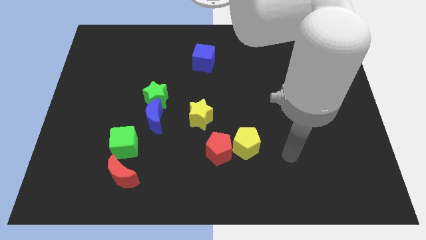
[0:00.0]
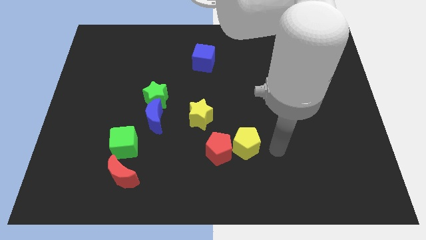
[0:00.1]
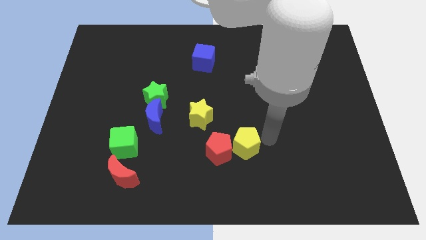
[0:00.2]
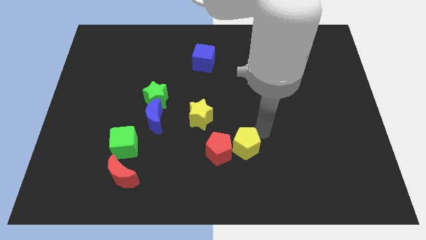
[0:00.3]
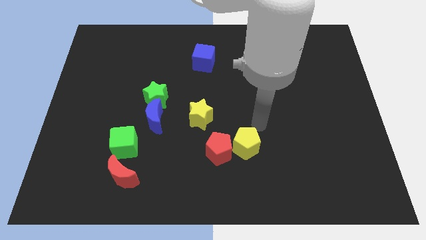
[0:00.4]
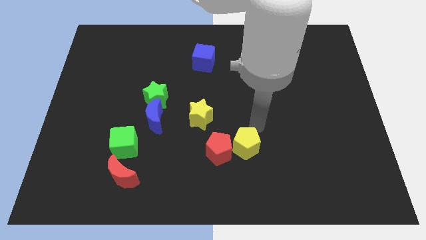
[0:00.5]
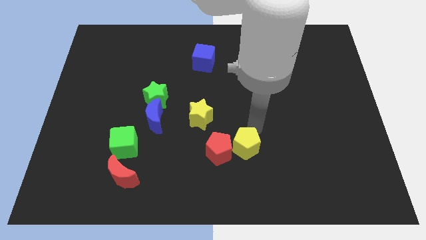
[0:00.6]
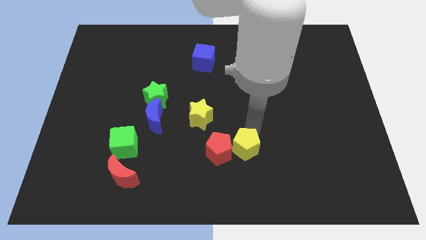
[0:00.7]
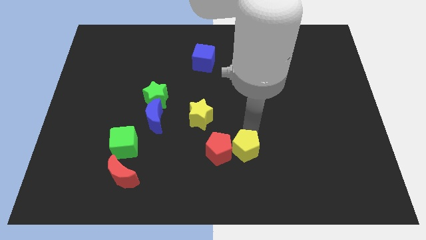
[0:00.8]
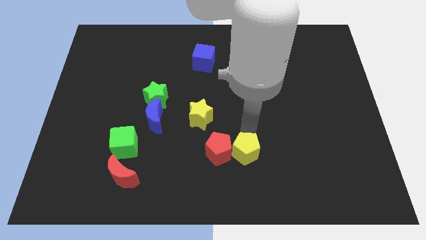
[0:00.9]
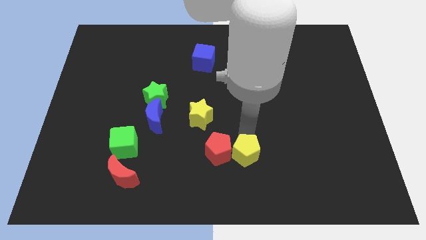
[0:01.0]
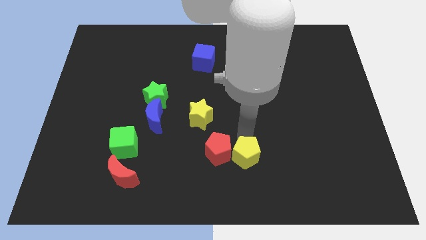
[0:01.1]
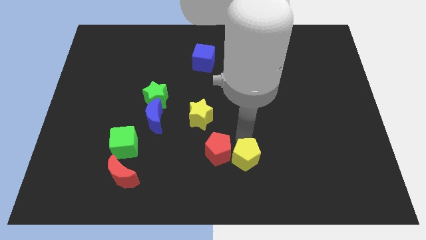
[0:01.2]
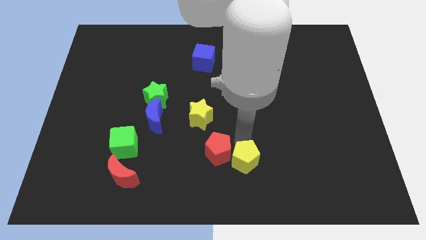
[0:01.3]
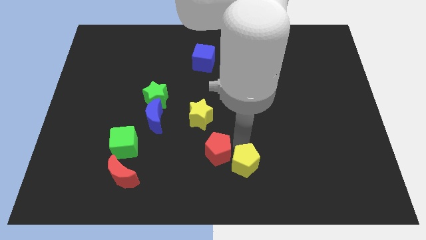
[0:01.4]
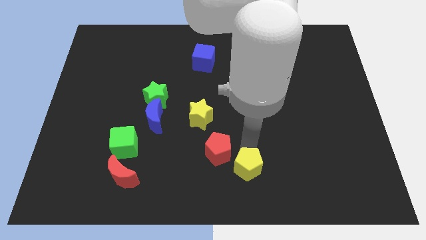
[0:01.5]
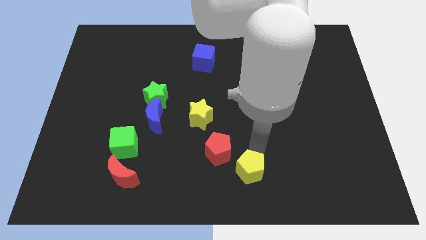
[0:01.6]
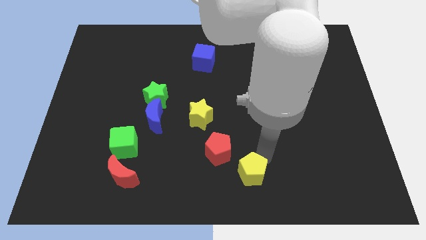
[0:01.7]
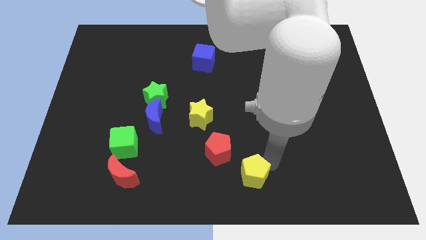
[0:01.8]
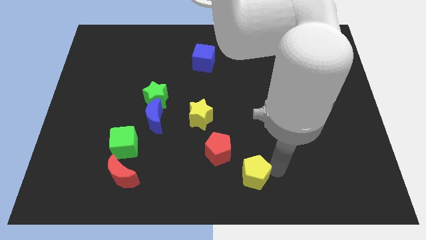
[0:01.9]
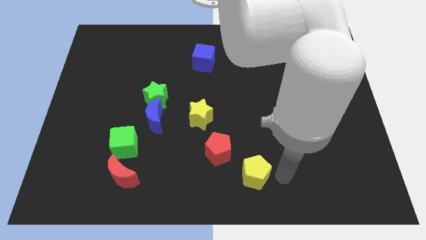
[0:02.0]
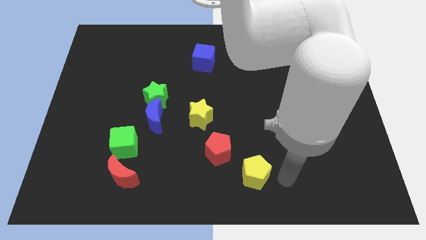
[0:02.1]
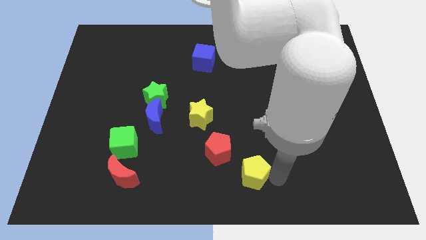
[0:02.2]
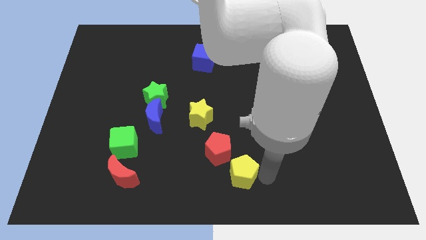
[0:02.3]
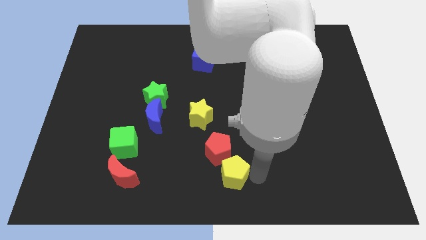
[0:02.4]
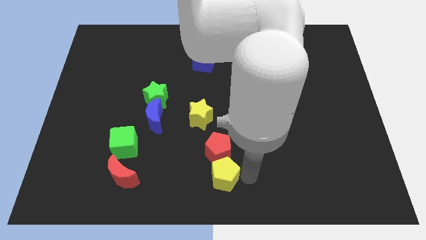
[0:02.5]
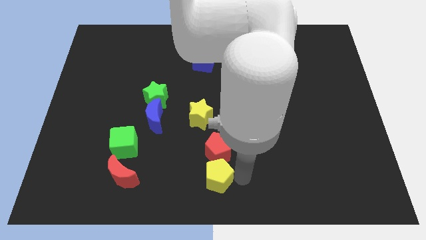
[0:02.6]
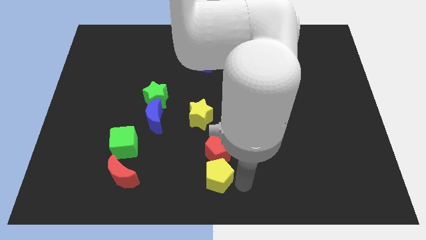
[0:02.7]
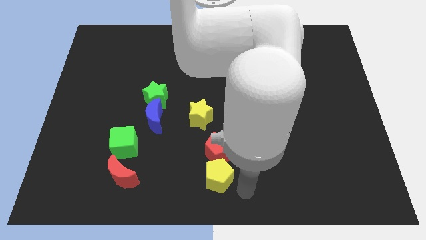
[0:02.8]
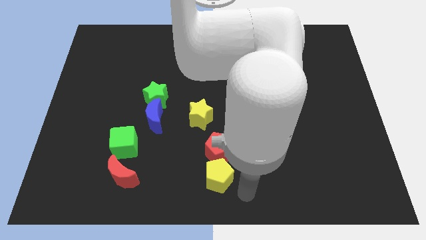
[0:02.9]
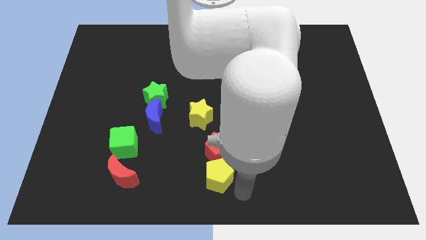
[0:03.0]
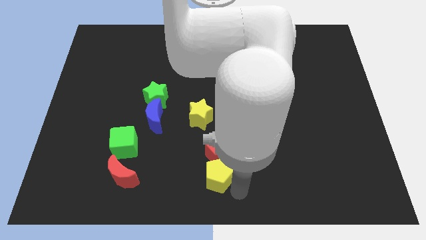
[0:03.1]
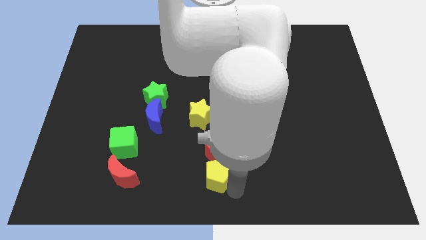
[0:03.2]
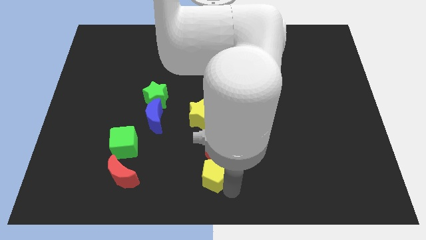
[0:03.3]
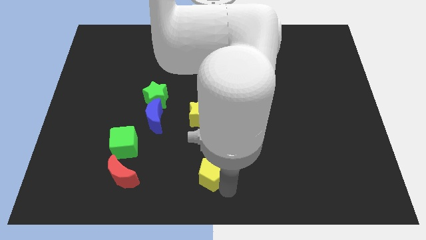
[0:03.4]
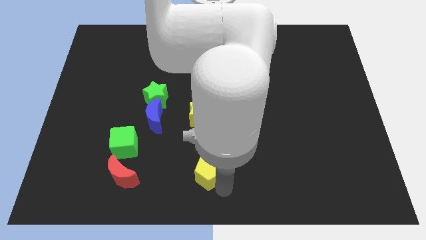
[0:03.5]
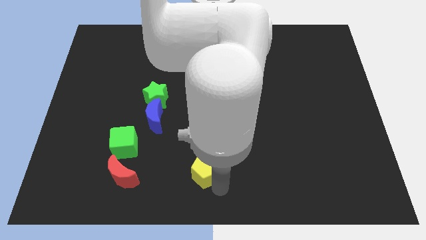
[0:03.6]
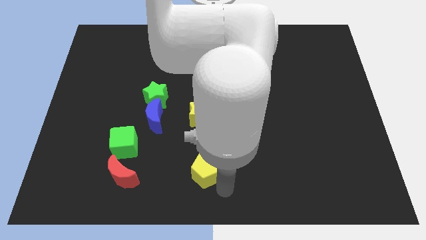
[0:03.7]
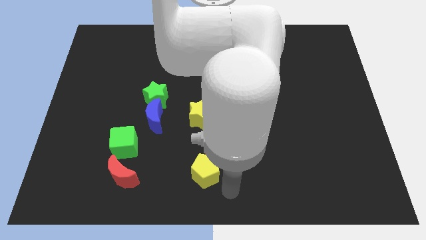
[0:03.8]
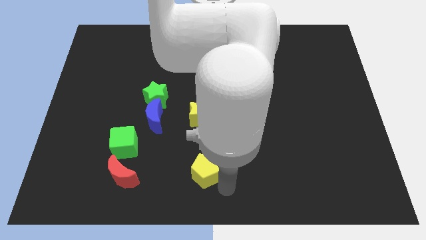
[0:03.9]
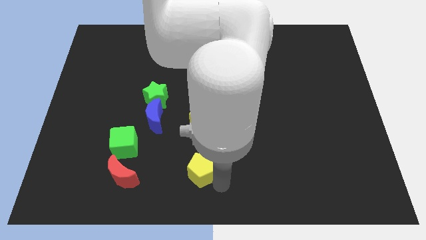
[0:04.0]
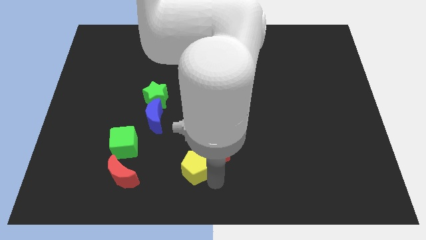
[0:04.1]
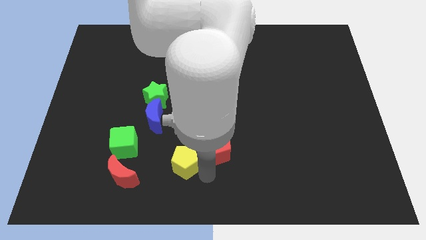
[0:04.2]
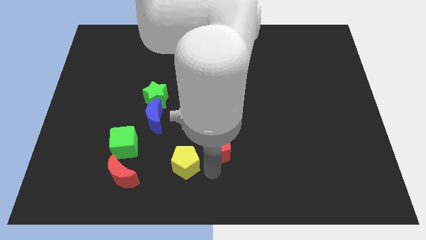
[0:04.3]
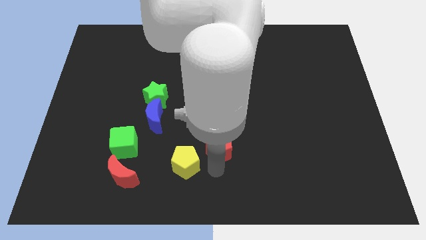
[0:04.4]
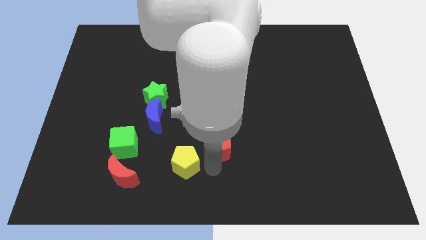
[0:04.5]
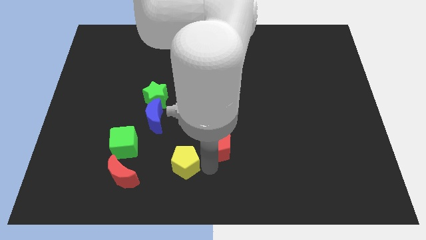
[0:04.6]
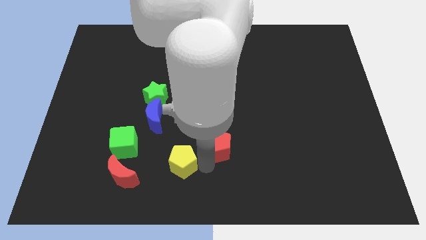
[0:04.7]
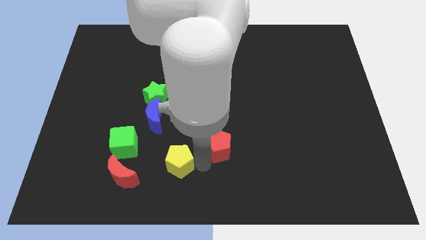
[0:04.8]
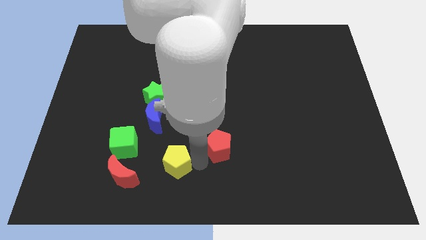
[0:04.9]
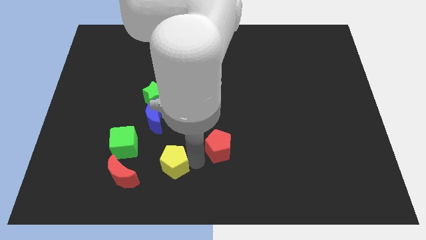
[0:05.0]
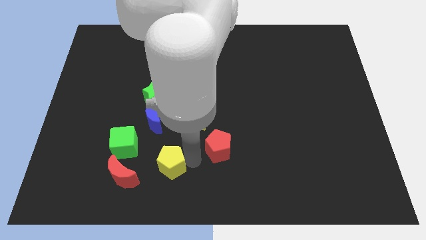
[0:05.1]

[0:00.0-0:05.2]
put the yellow pentagon below the blue moon

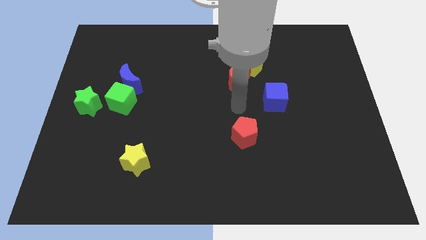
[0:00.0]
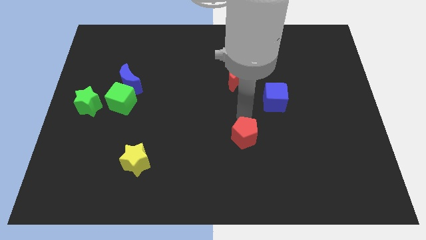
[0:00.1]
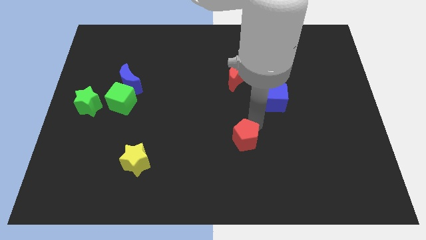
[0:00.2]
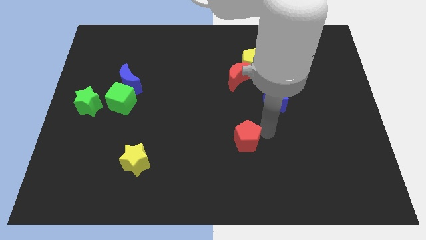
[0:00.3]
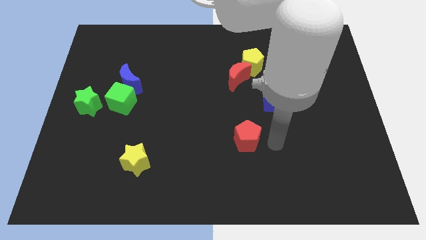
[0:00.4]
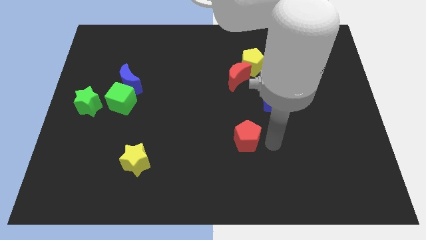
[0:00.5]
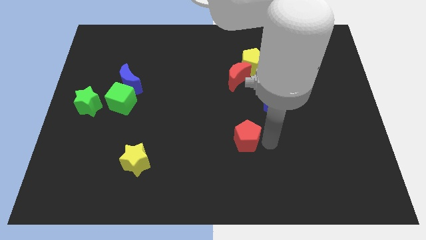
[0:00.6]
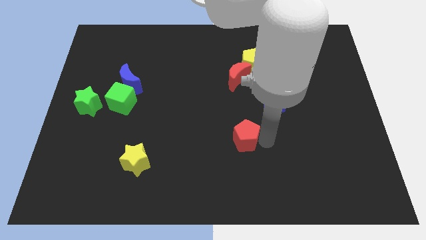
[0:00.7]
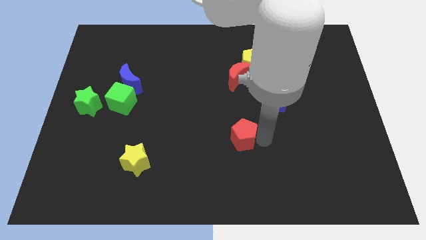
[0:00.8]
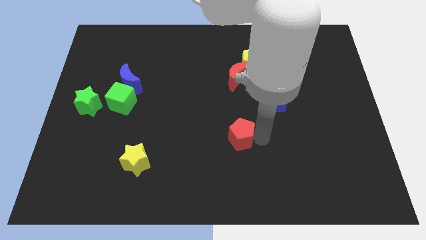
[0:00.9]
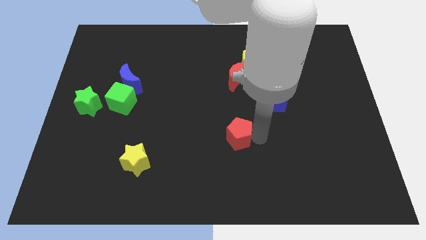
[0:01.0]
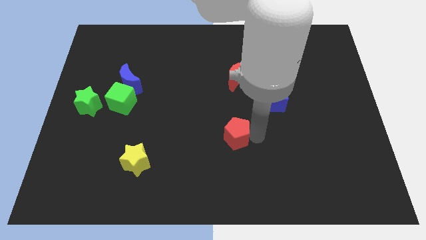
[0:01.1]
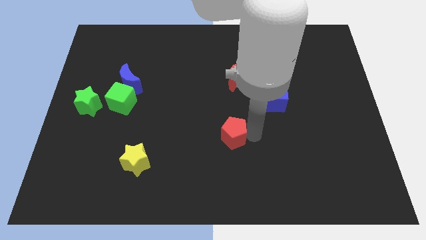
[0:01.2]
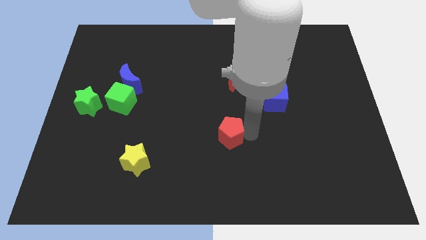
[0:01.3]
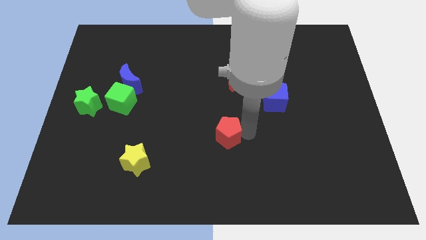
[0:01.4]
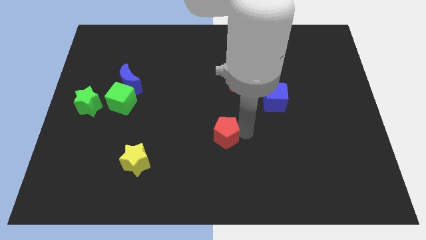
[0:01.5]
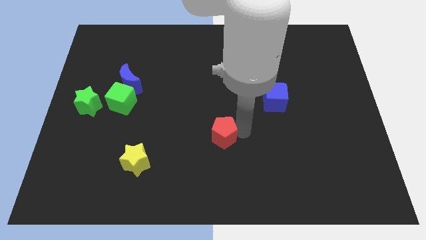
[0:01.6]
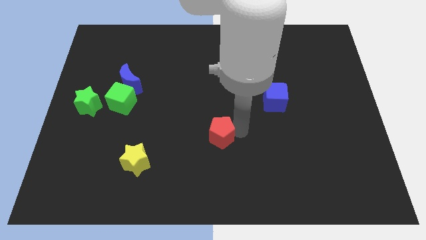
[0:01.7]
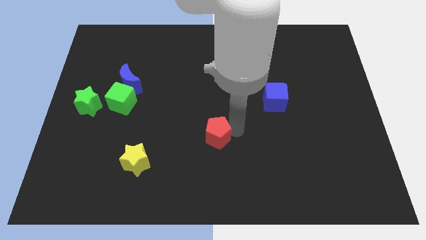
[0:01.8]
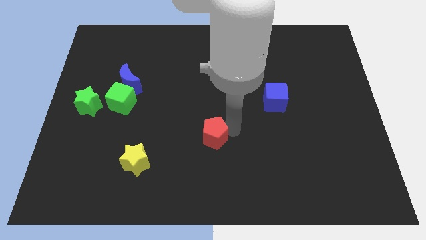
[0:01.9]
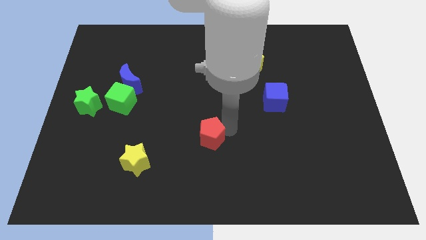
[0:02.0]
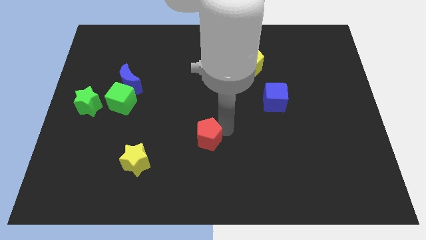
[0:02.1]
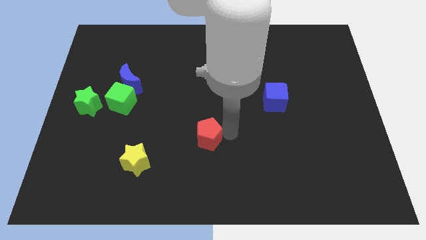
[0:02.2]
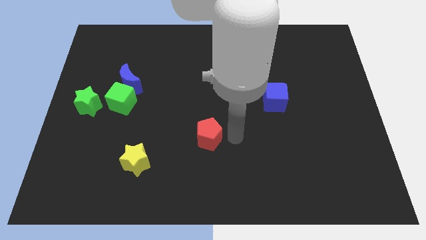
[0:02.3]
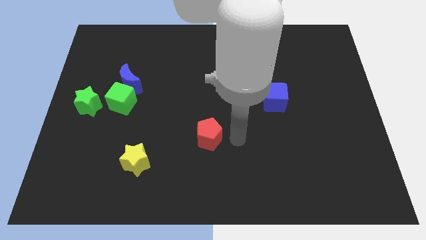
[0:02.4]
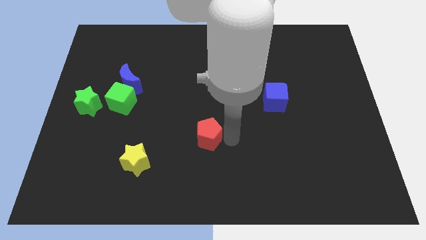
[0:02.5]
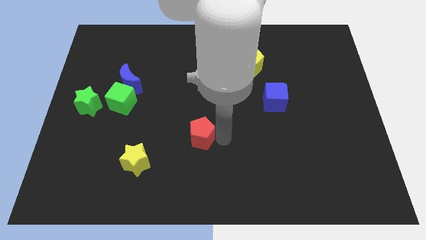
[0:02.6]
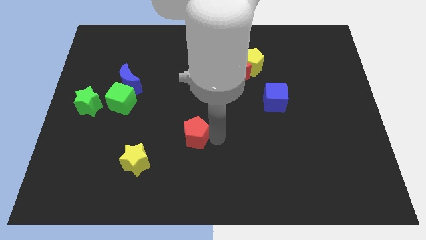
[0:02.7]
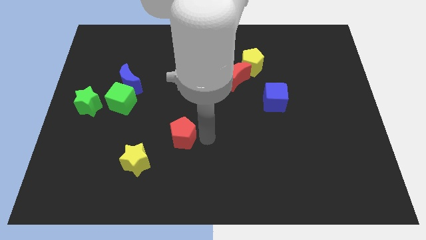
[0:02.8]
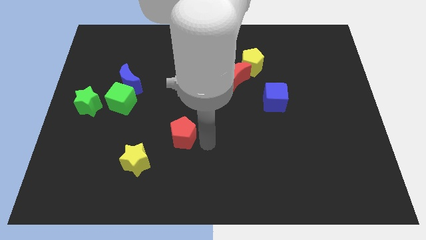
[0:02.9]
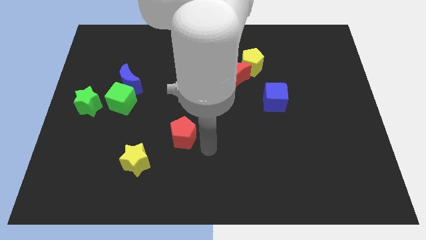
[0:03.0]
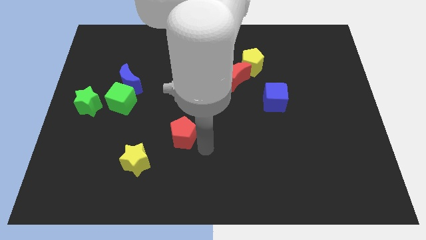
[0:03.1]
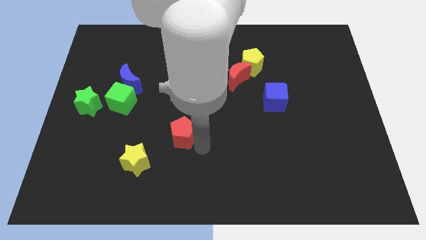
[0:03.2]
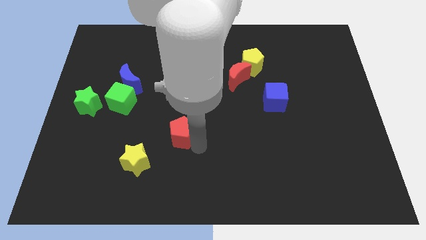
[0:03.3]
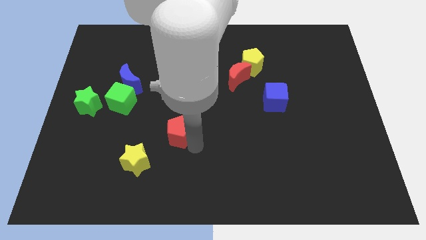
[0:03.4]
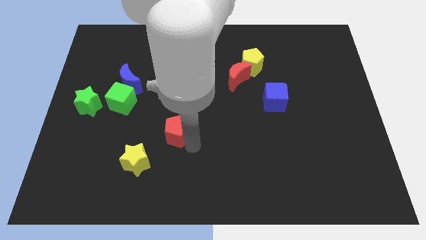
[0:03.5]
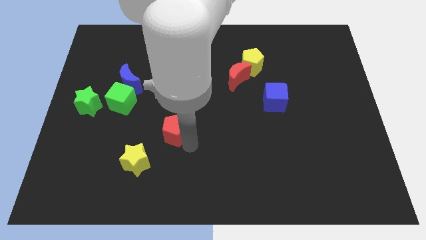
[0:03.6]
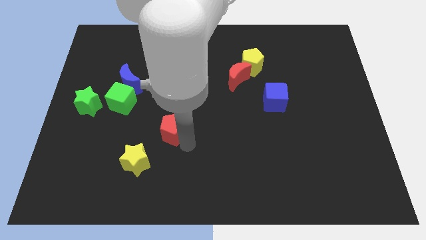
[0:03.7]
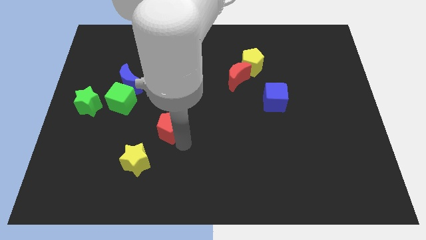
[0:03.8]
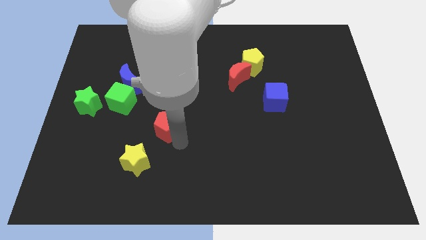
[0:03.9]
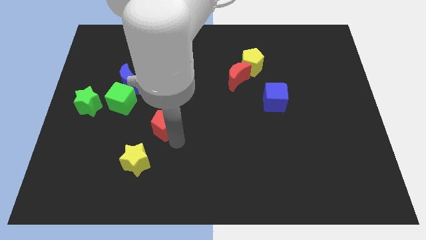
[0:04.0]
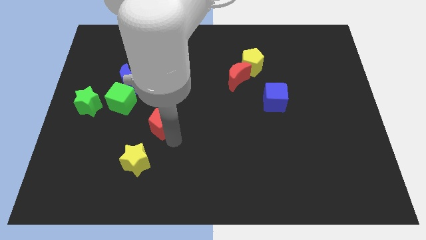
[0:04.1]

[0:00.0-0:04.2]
slide the red pentagon to the bottom right of the green cube
